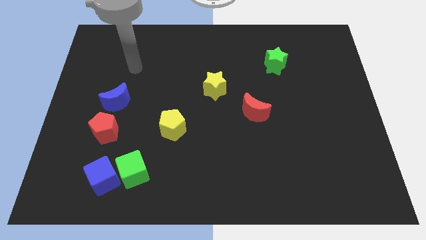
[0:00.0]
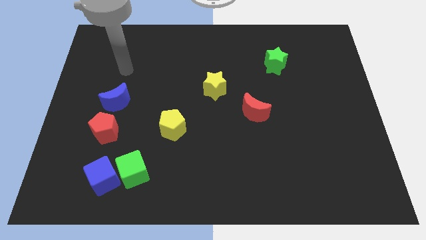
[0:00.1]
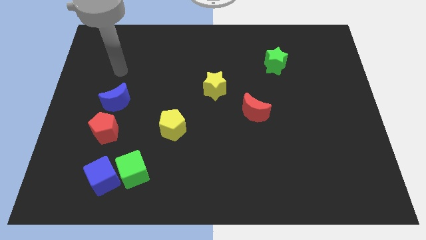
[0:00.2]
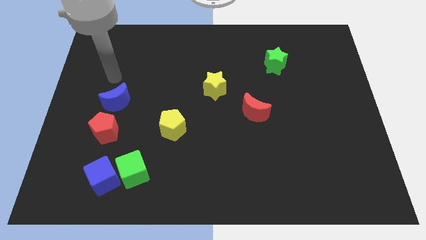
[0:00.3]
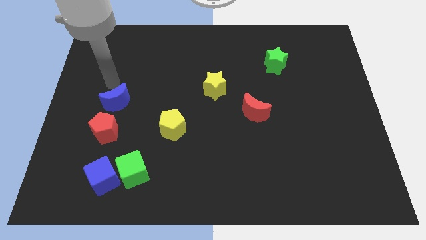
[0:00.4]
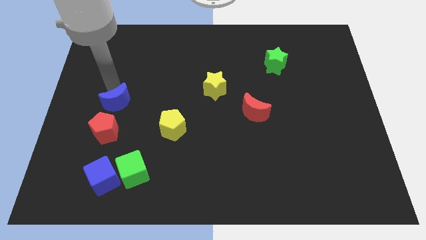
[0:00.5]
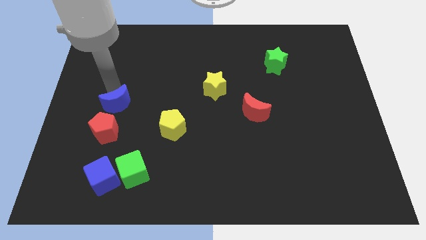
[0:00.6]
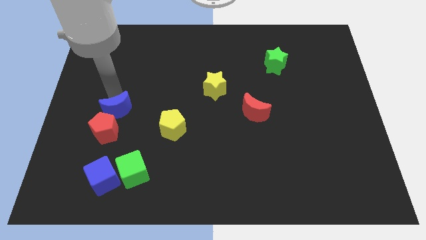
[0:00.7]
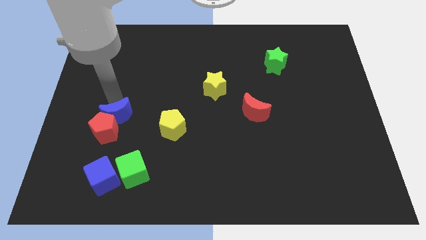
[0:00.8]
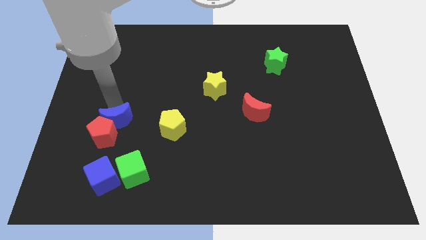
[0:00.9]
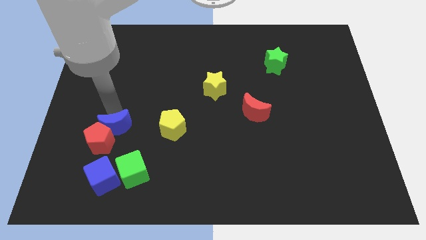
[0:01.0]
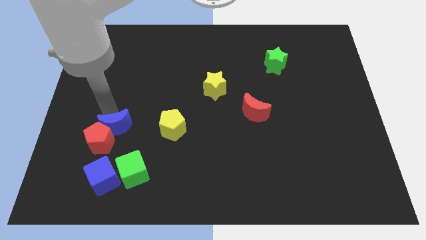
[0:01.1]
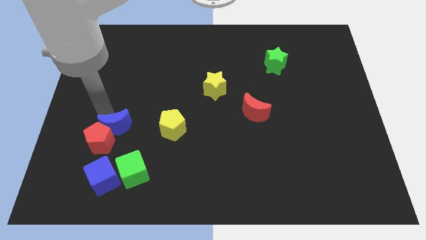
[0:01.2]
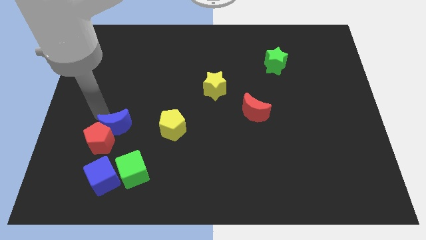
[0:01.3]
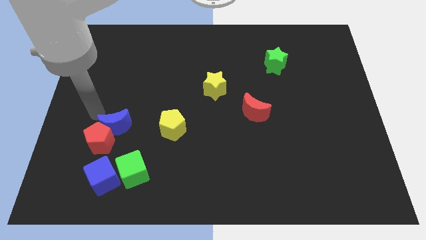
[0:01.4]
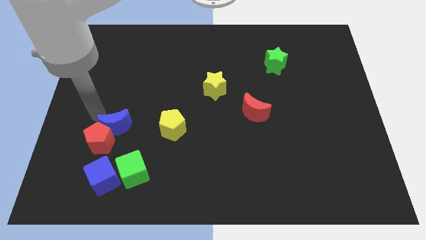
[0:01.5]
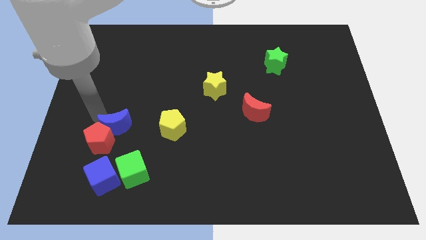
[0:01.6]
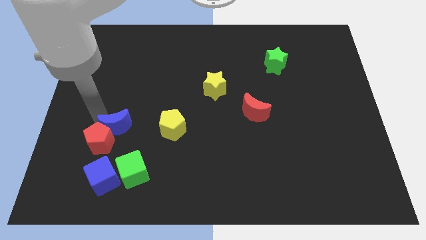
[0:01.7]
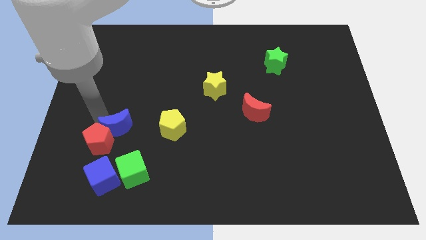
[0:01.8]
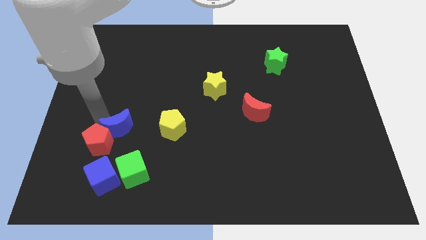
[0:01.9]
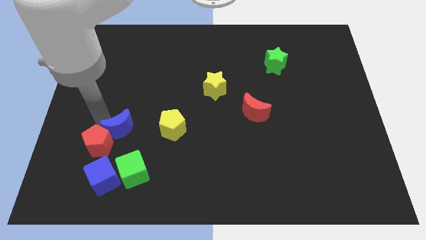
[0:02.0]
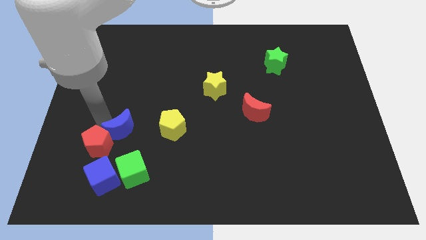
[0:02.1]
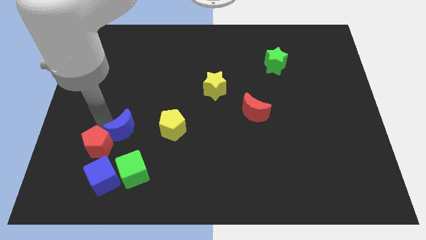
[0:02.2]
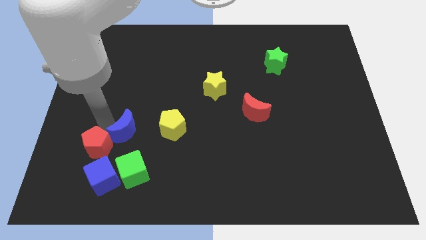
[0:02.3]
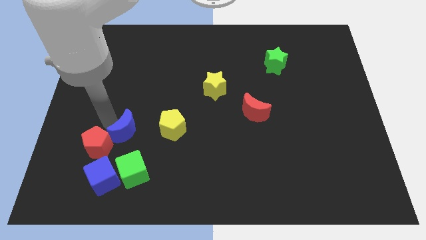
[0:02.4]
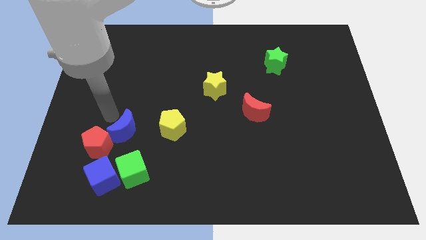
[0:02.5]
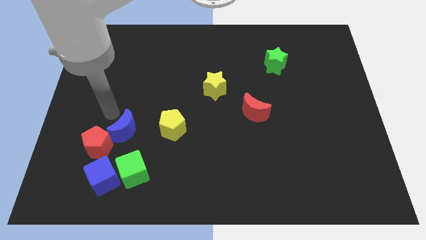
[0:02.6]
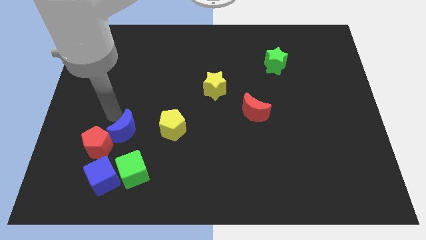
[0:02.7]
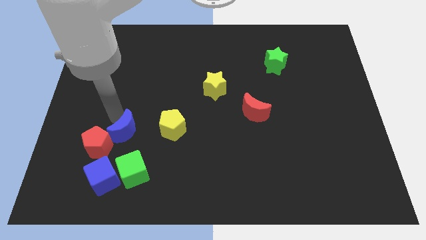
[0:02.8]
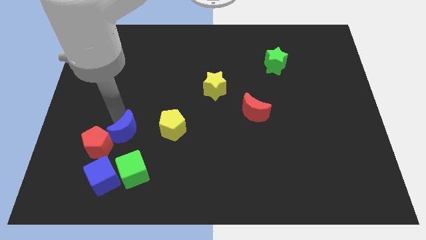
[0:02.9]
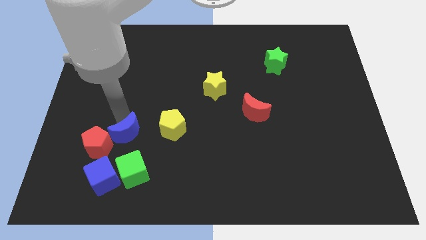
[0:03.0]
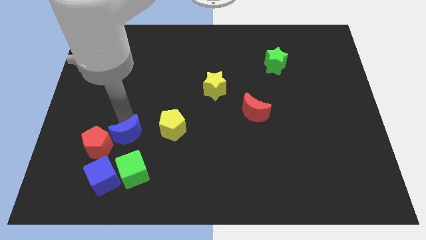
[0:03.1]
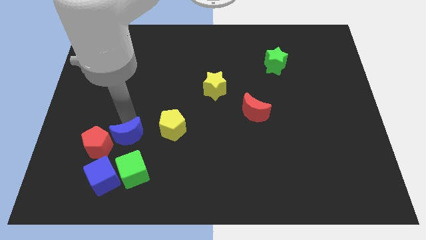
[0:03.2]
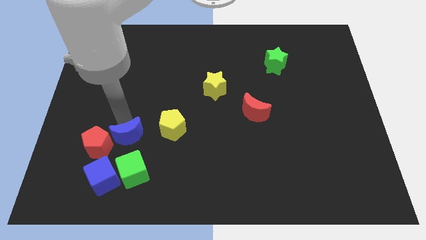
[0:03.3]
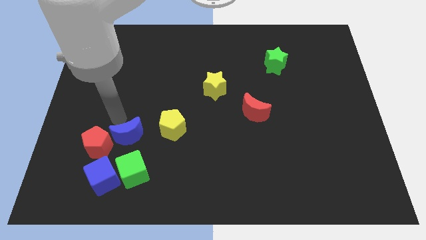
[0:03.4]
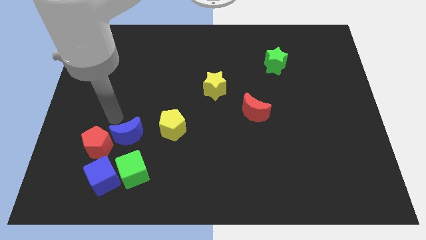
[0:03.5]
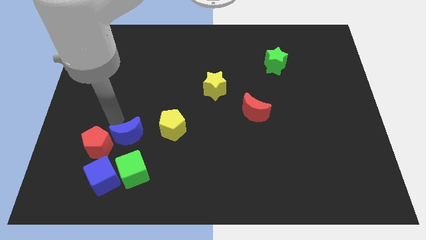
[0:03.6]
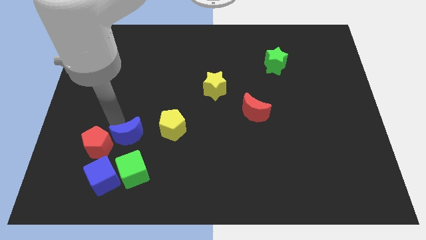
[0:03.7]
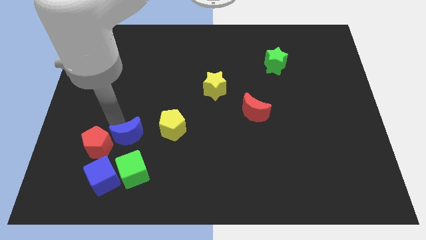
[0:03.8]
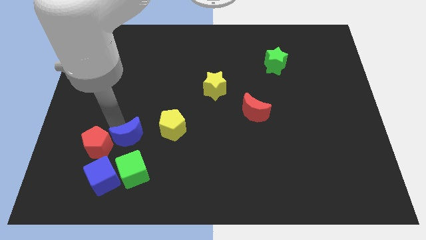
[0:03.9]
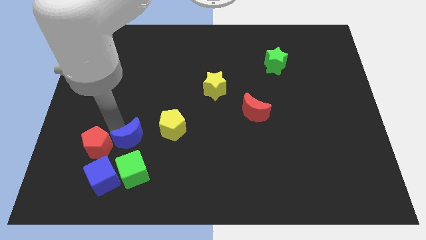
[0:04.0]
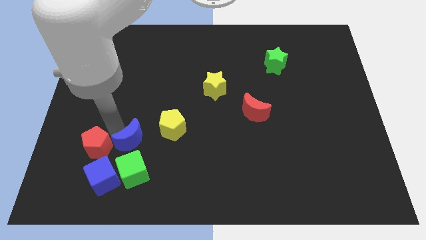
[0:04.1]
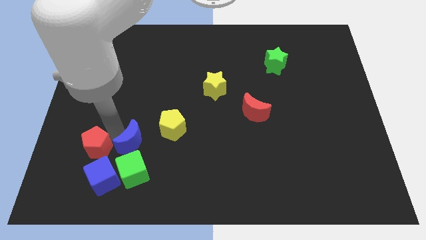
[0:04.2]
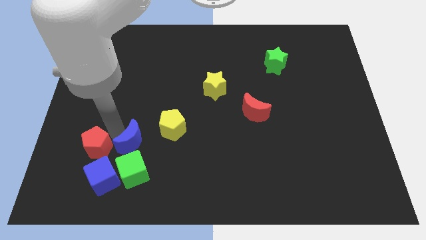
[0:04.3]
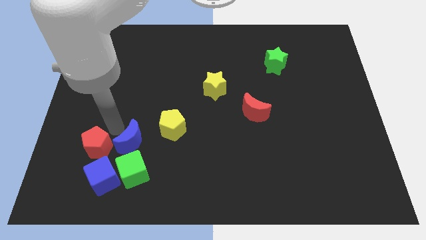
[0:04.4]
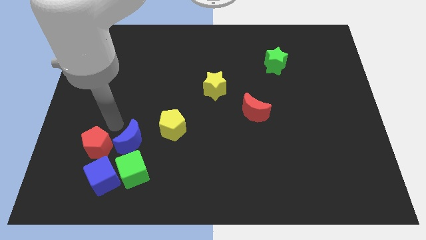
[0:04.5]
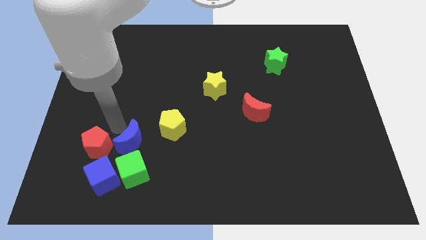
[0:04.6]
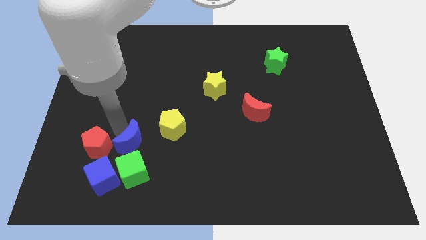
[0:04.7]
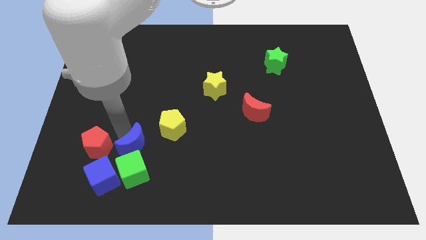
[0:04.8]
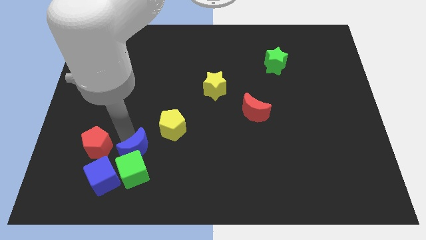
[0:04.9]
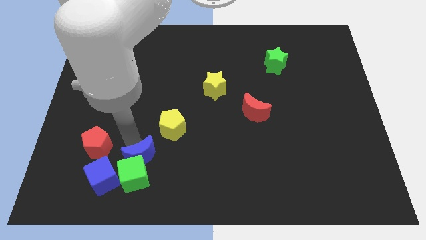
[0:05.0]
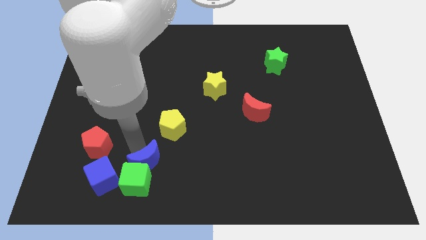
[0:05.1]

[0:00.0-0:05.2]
slide the blue moon to the right of the blue cube

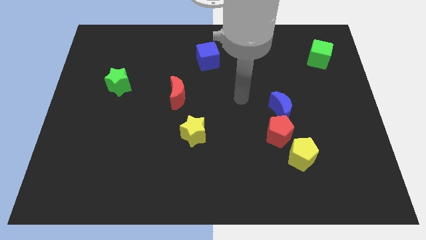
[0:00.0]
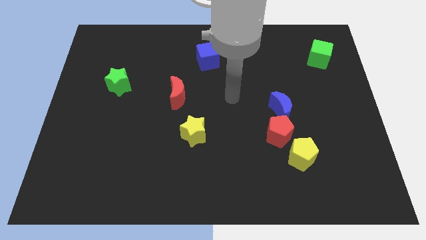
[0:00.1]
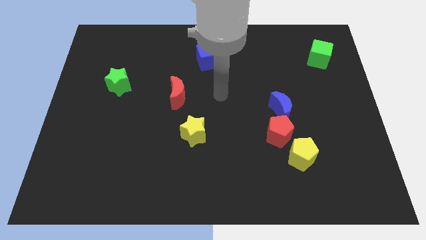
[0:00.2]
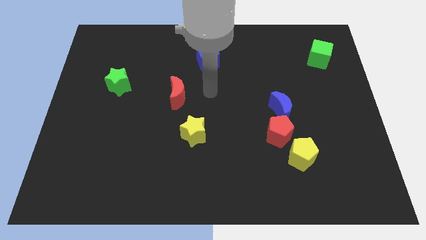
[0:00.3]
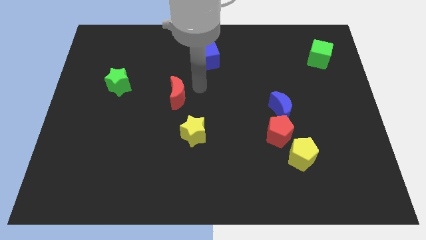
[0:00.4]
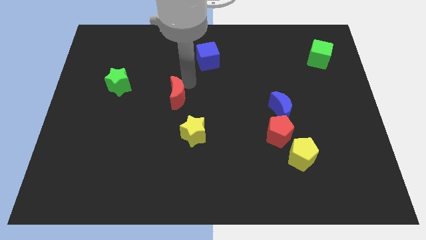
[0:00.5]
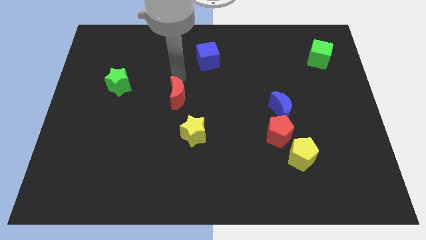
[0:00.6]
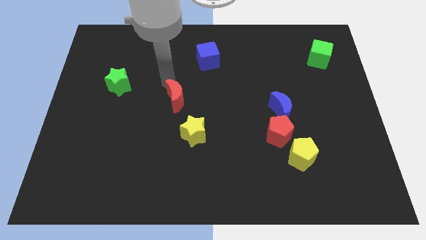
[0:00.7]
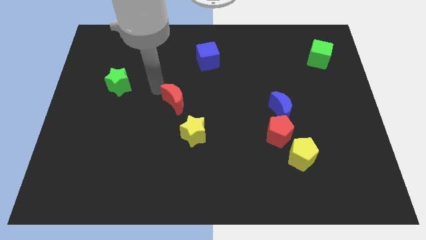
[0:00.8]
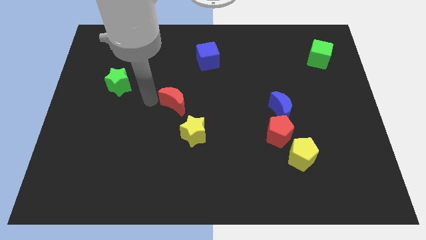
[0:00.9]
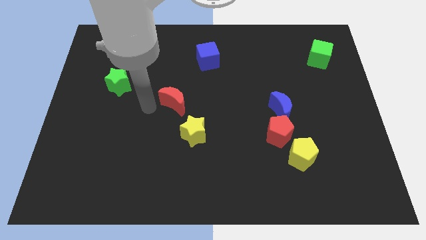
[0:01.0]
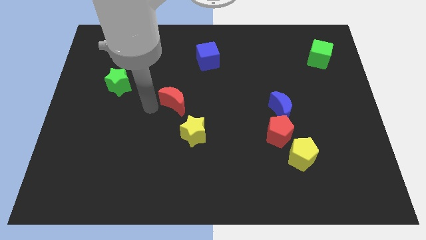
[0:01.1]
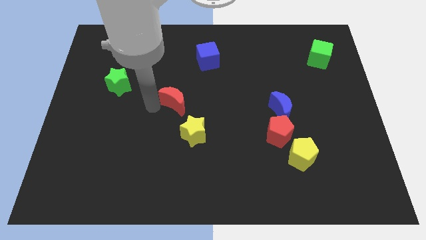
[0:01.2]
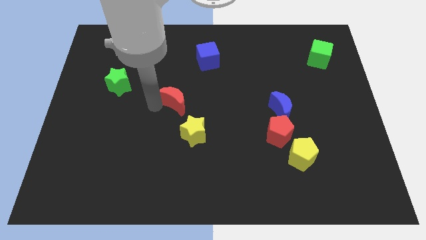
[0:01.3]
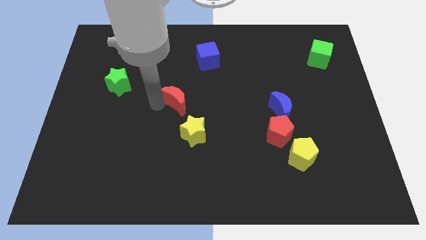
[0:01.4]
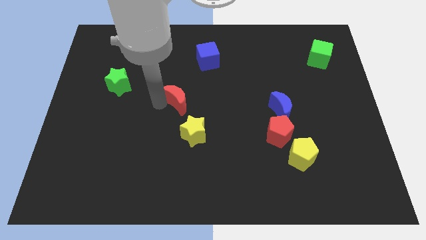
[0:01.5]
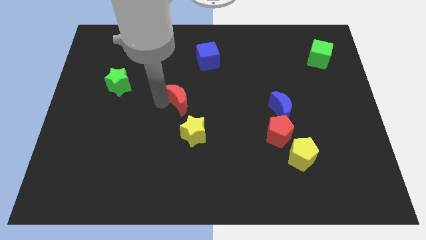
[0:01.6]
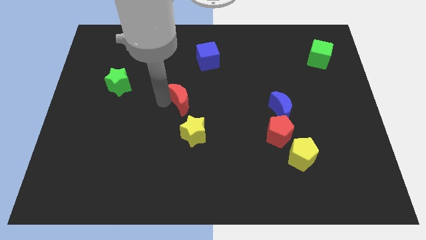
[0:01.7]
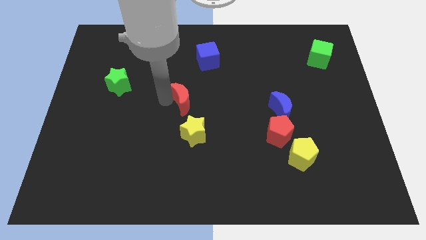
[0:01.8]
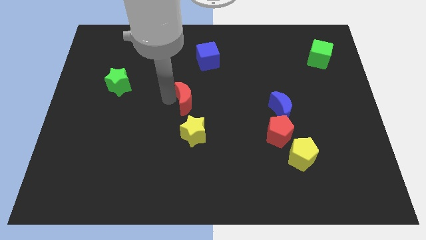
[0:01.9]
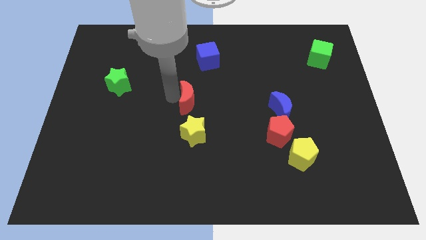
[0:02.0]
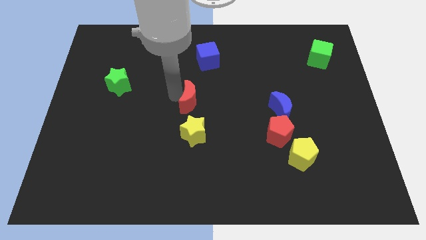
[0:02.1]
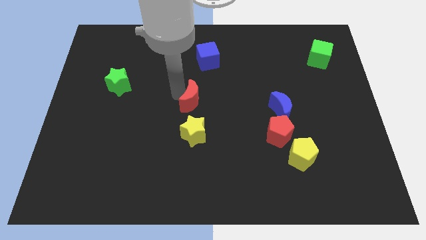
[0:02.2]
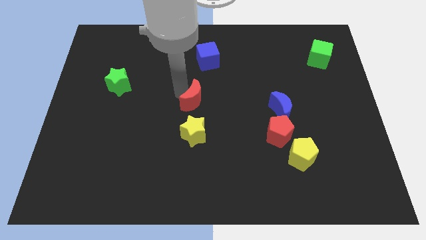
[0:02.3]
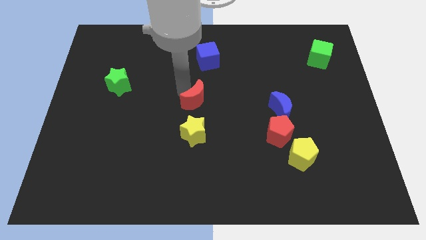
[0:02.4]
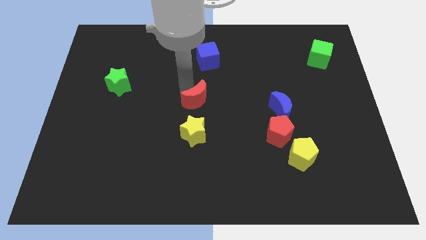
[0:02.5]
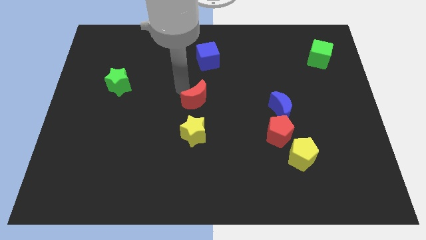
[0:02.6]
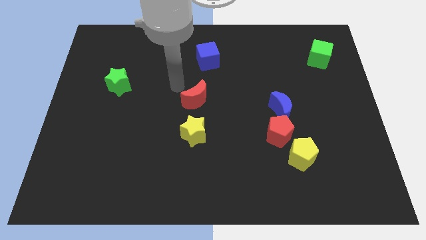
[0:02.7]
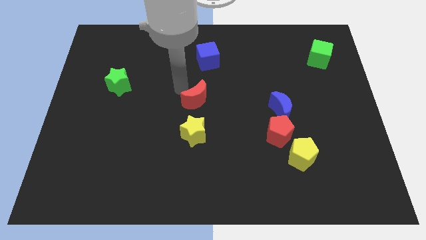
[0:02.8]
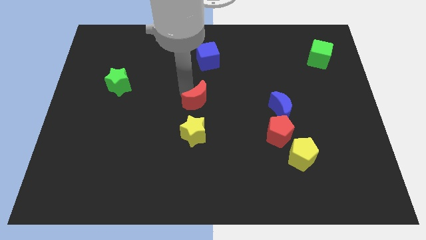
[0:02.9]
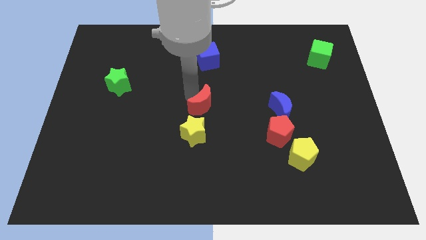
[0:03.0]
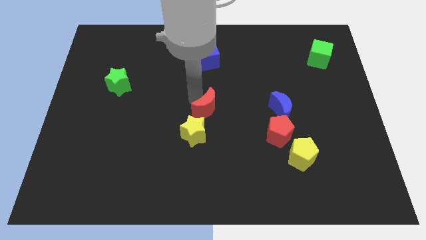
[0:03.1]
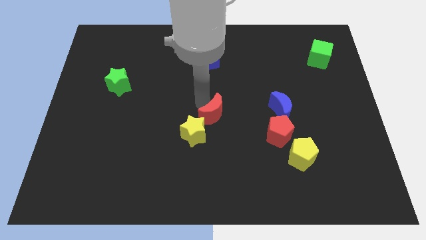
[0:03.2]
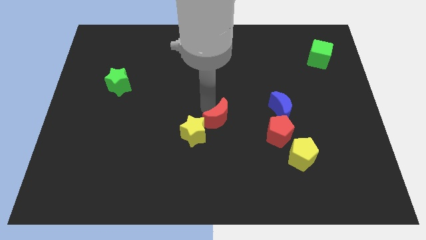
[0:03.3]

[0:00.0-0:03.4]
push the red moon to the left side of the red pentagon
